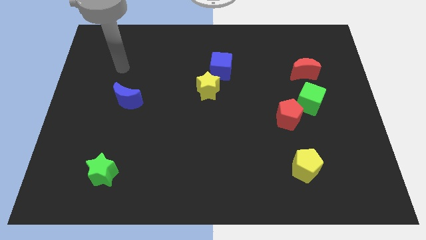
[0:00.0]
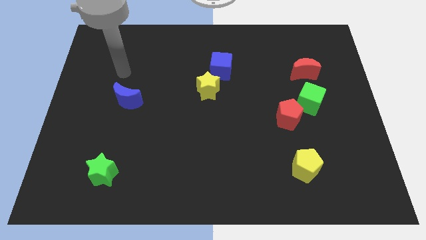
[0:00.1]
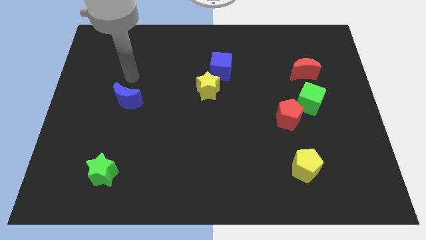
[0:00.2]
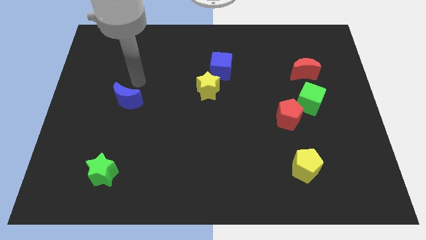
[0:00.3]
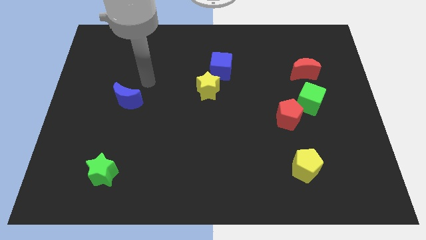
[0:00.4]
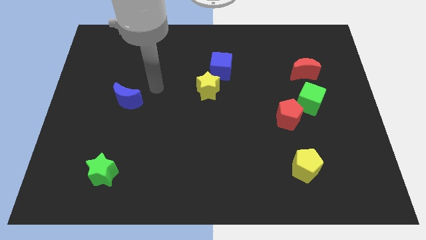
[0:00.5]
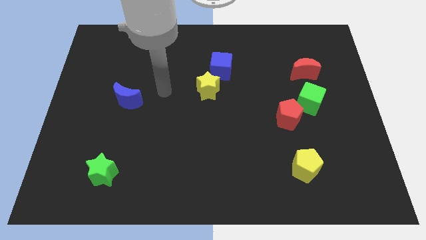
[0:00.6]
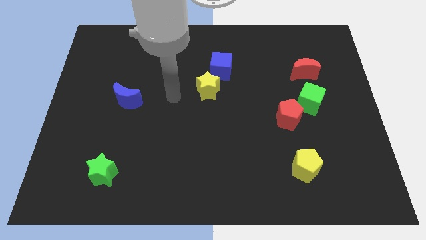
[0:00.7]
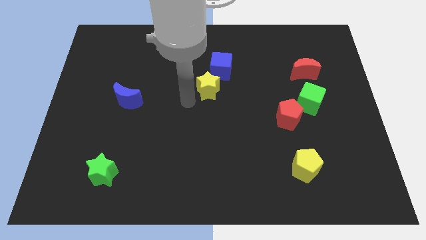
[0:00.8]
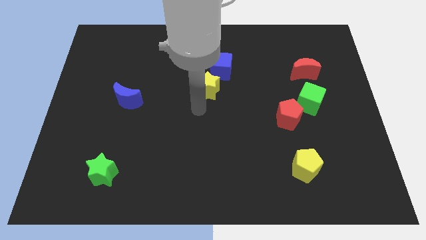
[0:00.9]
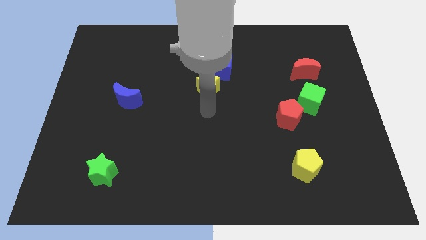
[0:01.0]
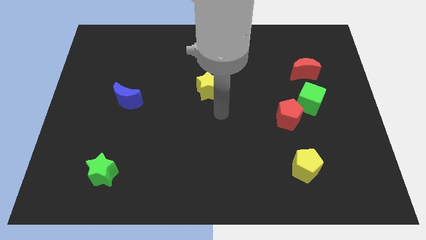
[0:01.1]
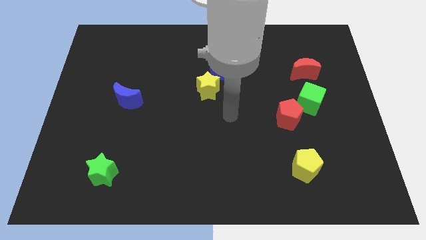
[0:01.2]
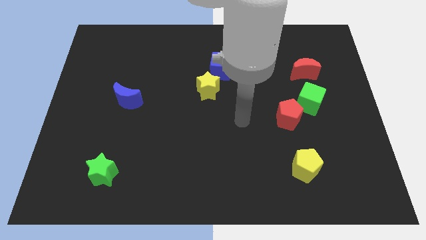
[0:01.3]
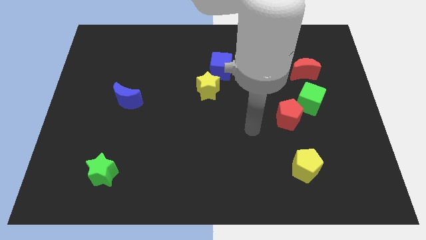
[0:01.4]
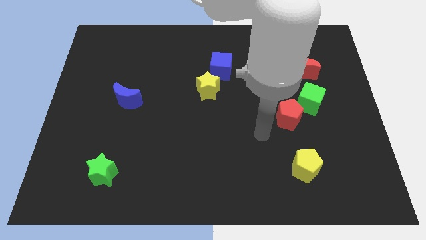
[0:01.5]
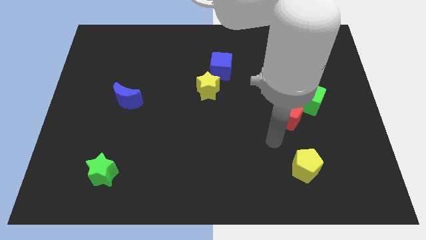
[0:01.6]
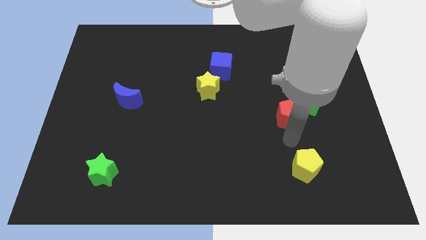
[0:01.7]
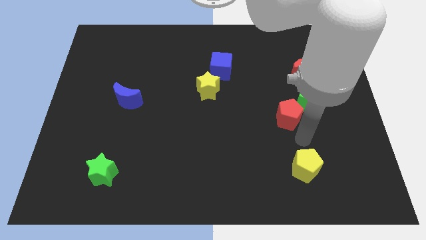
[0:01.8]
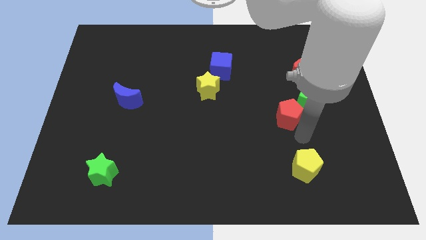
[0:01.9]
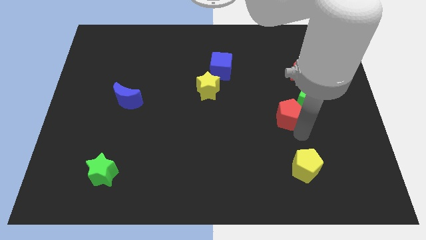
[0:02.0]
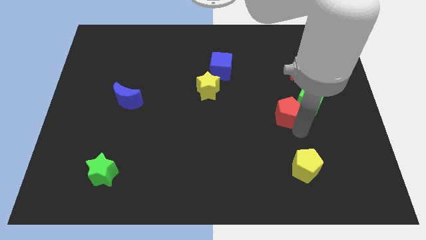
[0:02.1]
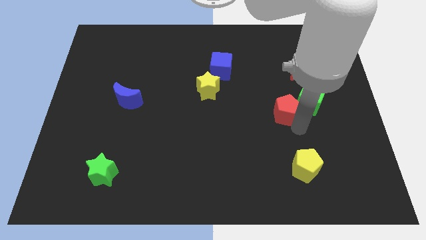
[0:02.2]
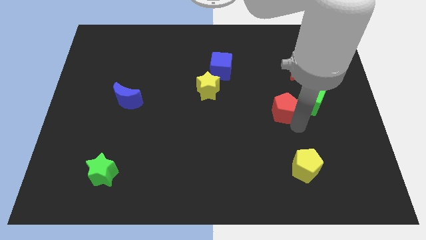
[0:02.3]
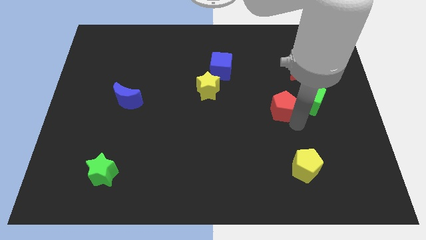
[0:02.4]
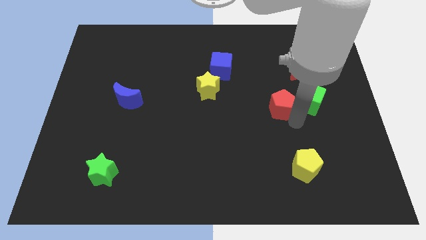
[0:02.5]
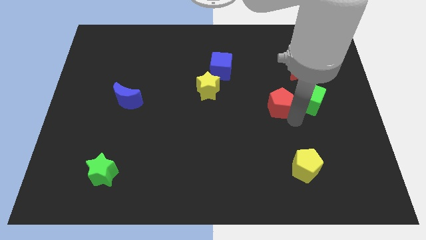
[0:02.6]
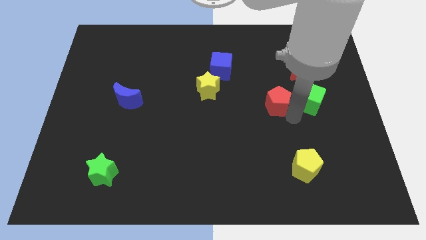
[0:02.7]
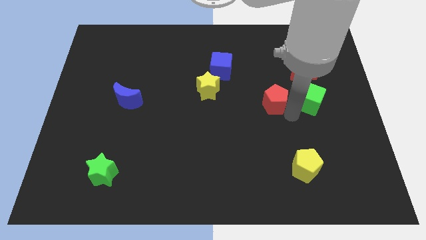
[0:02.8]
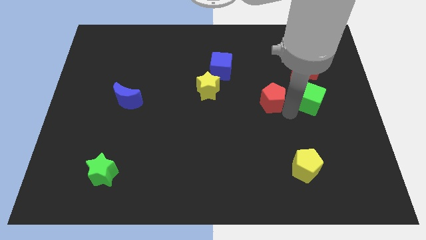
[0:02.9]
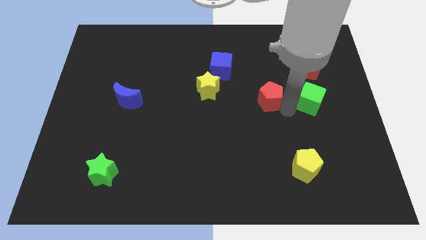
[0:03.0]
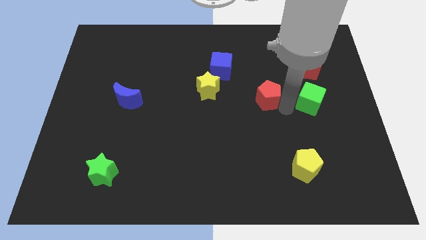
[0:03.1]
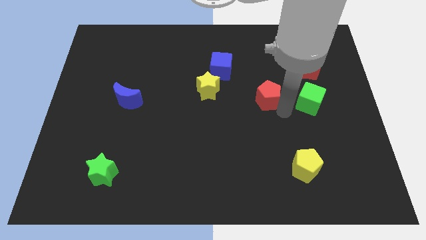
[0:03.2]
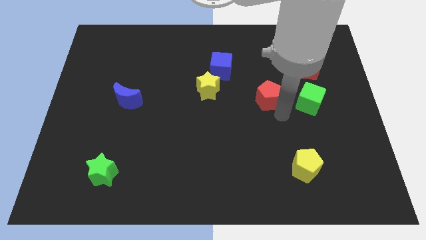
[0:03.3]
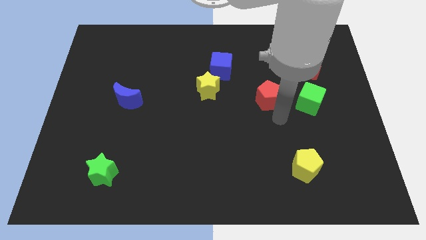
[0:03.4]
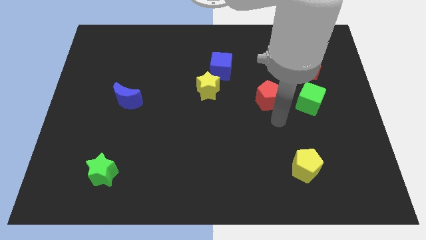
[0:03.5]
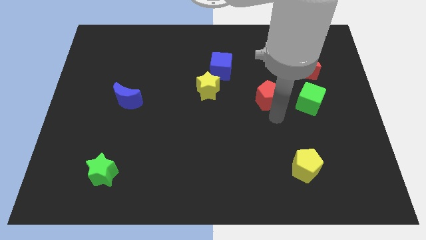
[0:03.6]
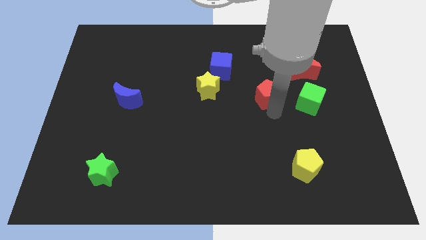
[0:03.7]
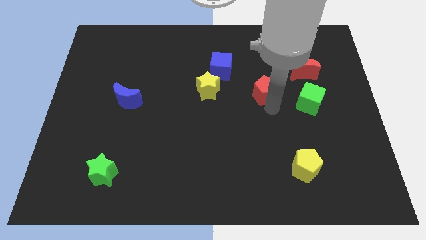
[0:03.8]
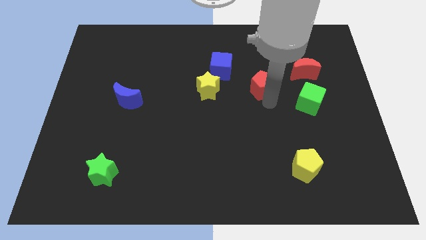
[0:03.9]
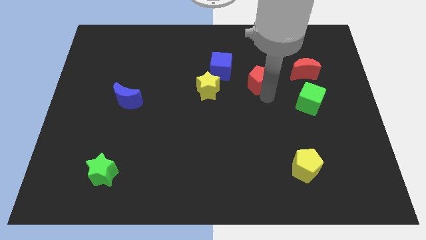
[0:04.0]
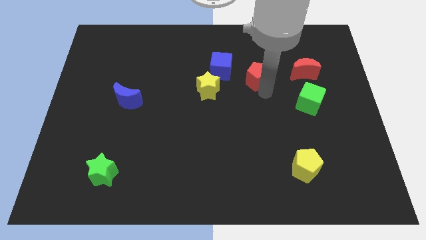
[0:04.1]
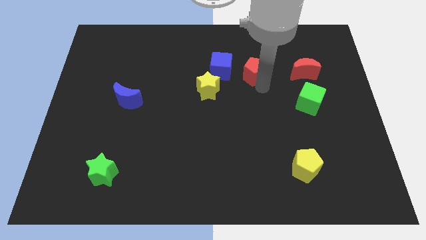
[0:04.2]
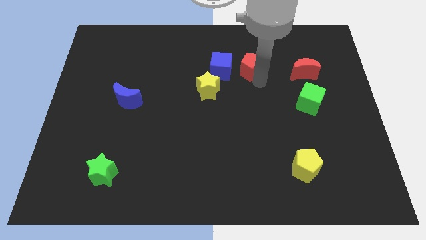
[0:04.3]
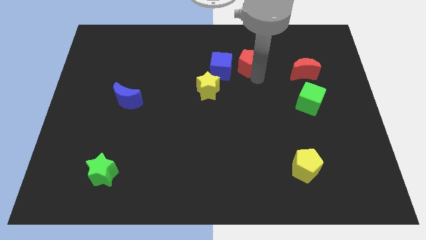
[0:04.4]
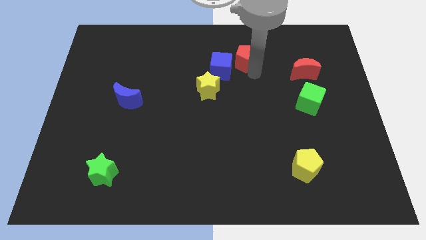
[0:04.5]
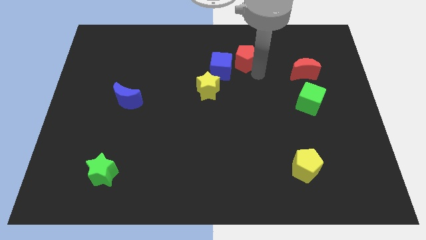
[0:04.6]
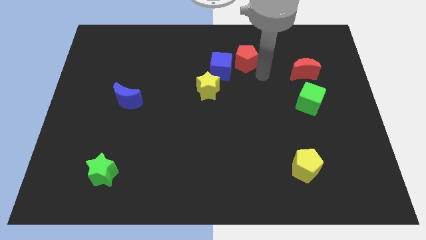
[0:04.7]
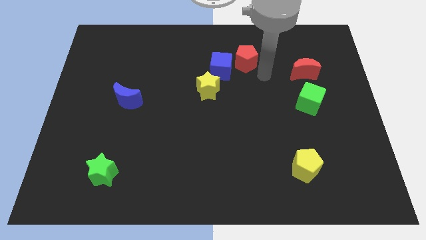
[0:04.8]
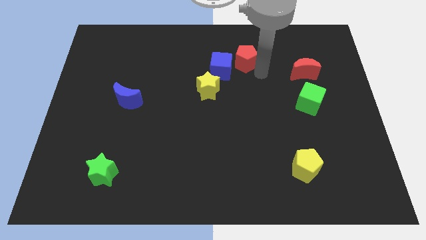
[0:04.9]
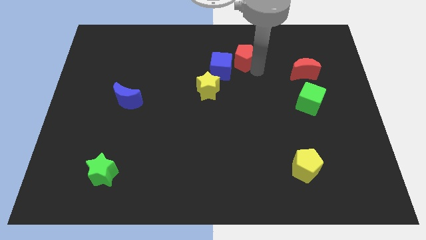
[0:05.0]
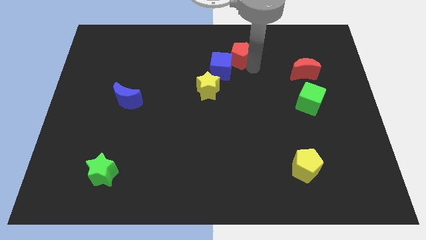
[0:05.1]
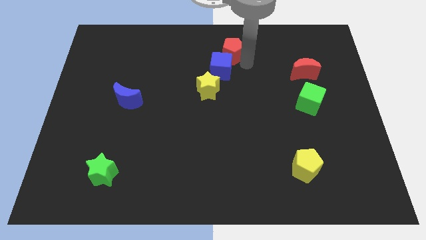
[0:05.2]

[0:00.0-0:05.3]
slide the red pentagon to the towards your base

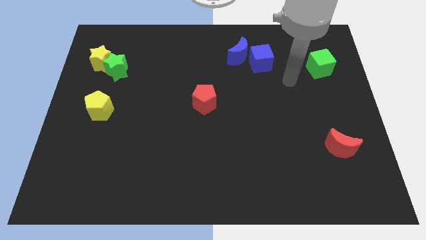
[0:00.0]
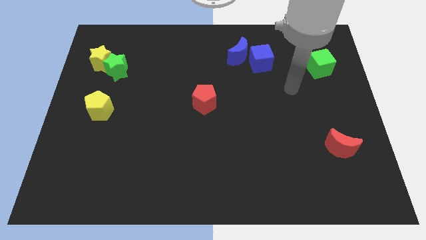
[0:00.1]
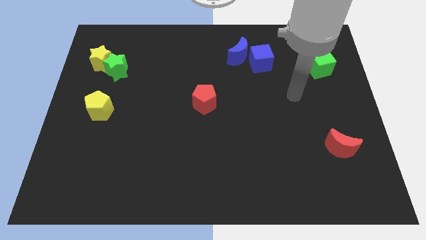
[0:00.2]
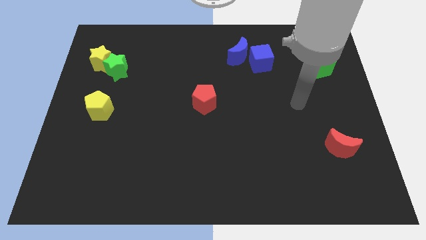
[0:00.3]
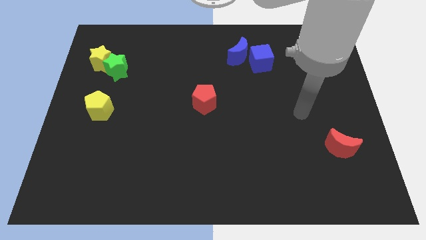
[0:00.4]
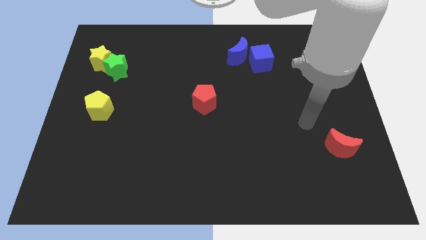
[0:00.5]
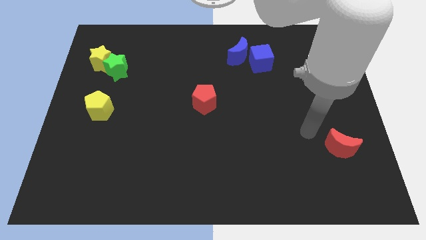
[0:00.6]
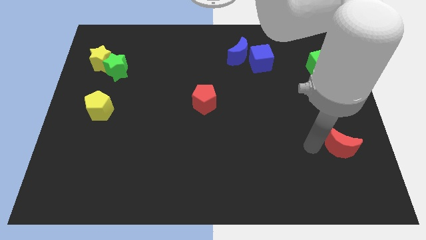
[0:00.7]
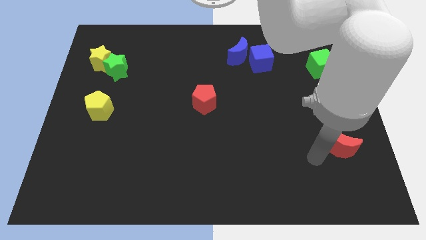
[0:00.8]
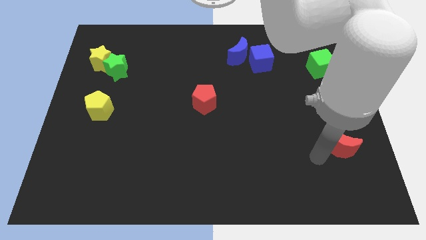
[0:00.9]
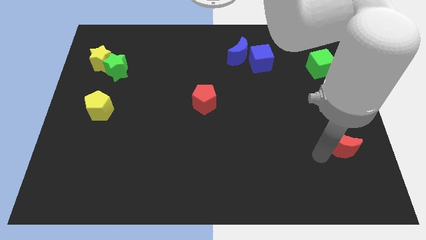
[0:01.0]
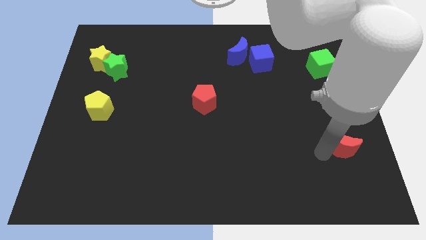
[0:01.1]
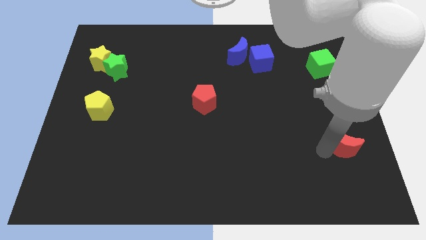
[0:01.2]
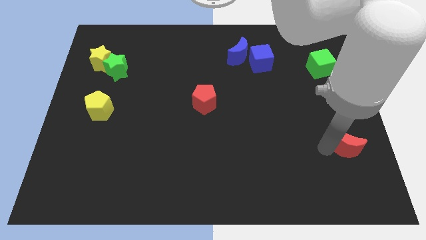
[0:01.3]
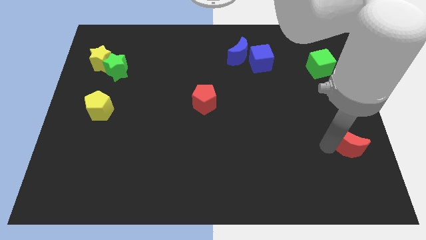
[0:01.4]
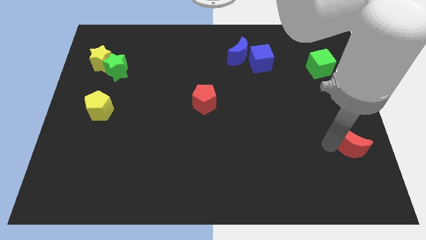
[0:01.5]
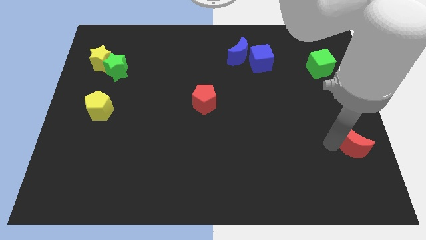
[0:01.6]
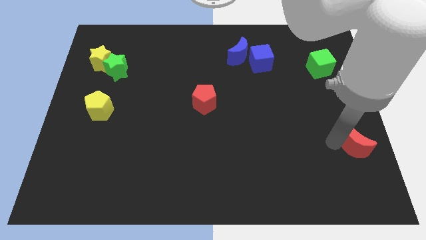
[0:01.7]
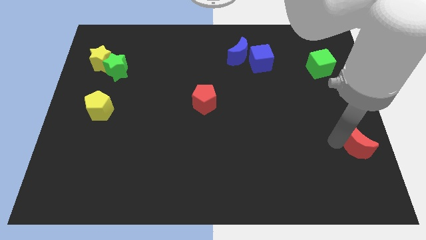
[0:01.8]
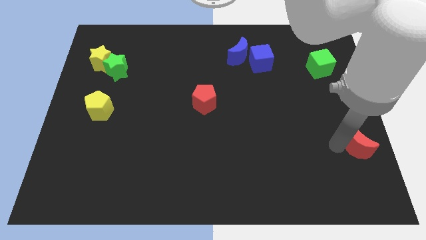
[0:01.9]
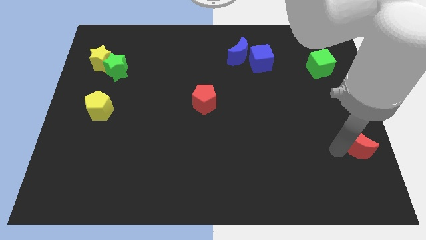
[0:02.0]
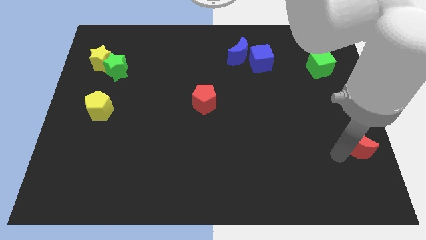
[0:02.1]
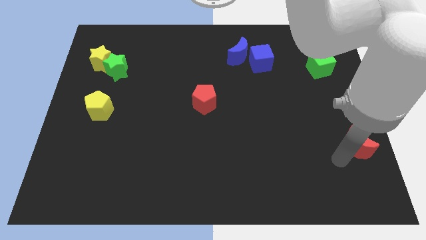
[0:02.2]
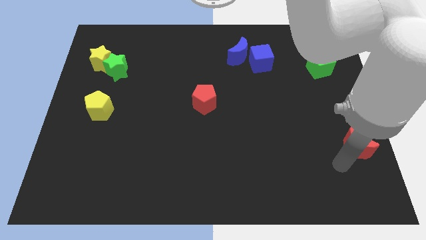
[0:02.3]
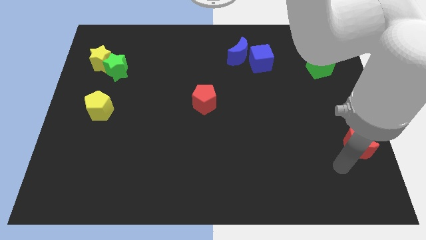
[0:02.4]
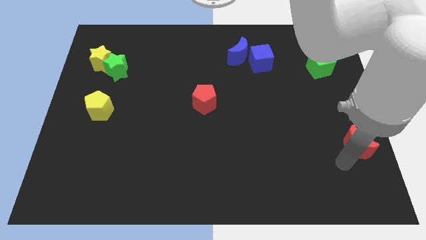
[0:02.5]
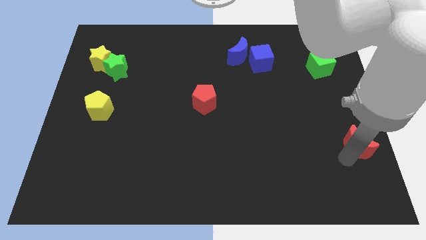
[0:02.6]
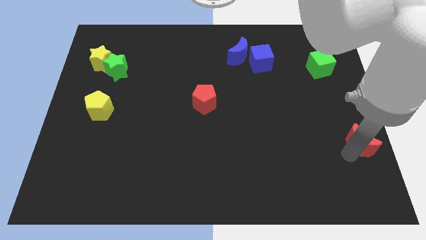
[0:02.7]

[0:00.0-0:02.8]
put the red moon to the right side of the board
